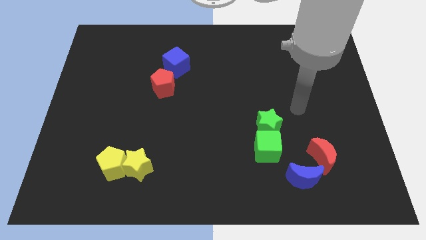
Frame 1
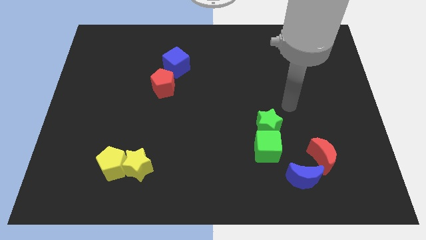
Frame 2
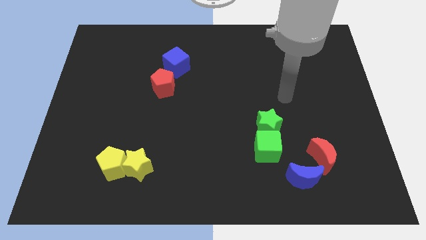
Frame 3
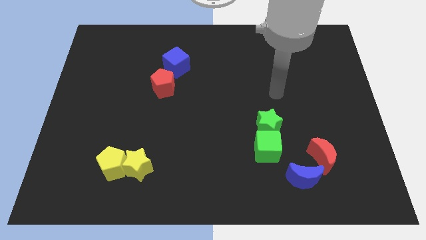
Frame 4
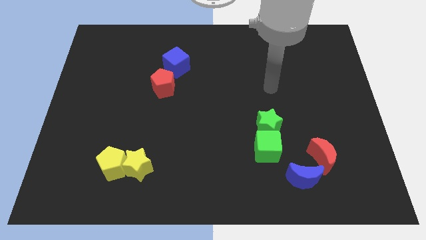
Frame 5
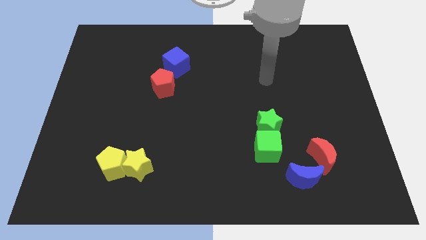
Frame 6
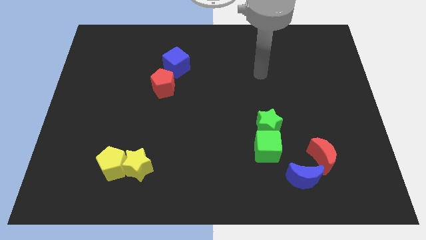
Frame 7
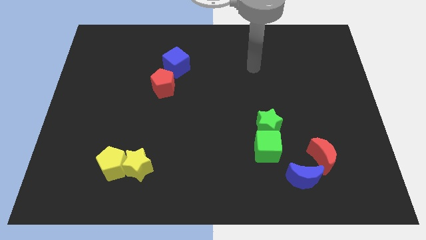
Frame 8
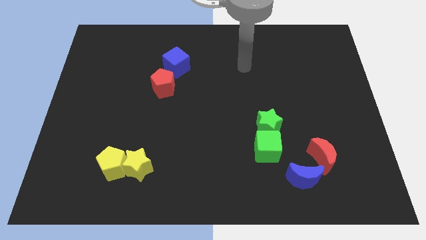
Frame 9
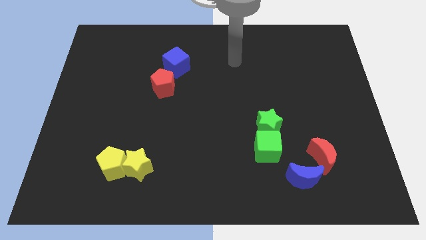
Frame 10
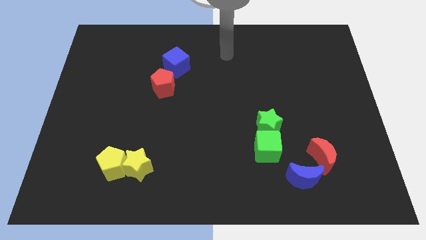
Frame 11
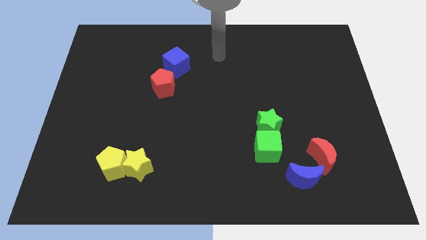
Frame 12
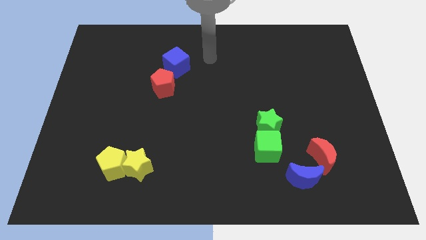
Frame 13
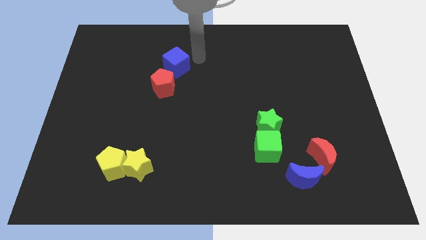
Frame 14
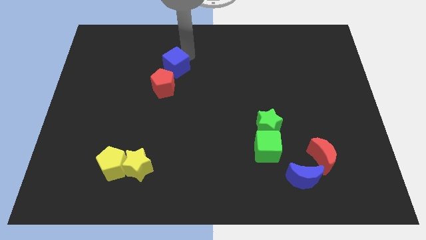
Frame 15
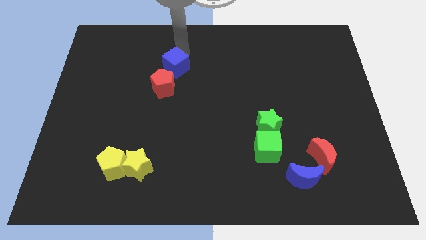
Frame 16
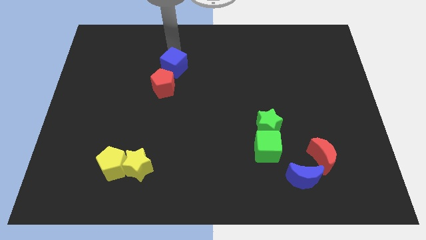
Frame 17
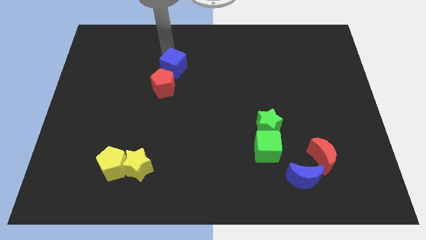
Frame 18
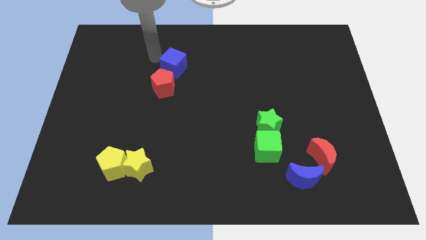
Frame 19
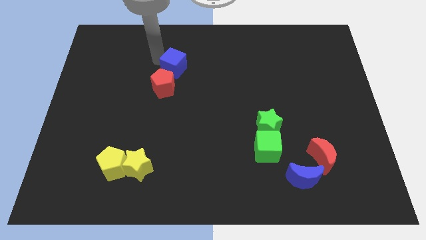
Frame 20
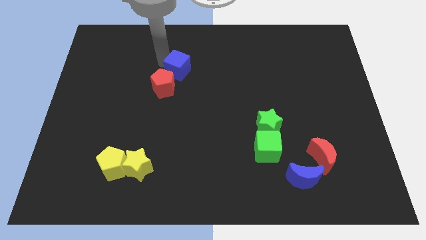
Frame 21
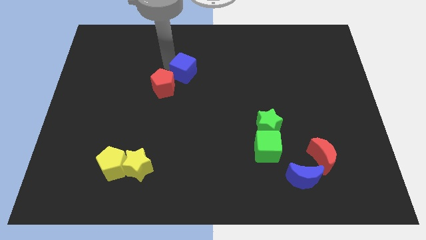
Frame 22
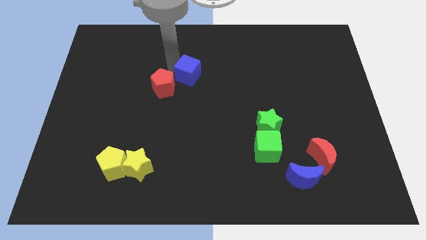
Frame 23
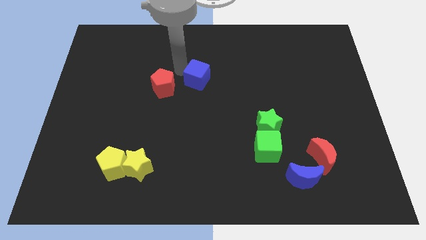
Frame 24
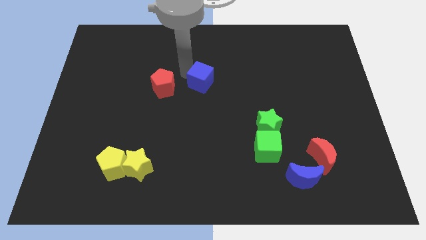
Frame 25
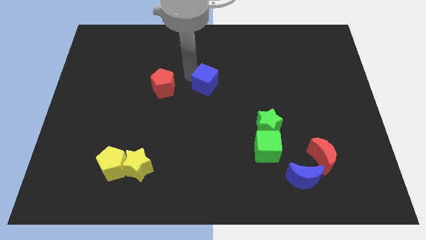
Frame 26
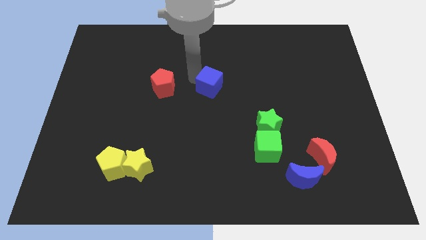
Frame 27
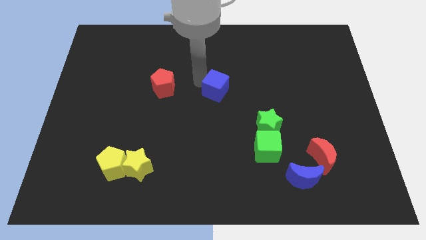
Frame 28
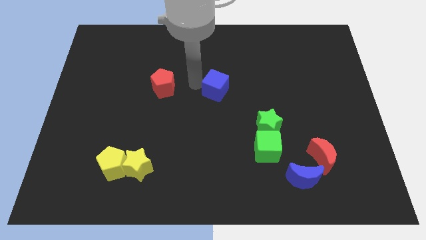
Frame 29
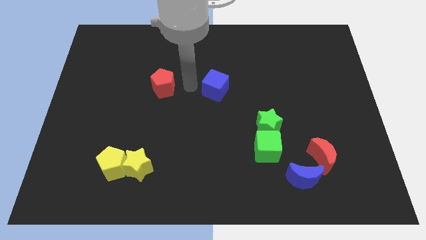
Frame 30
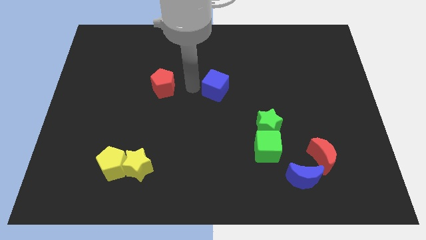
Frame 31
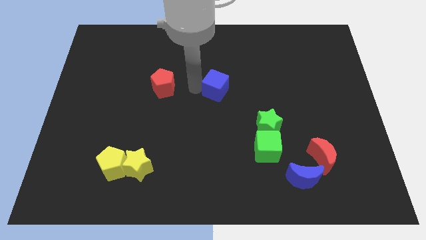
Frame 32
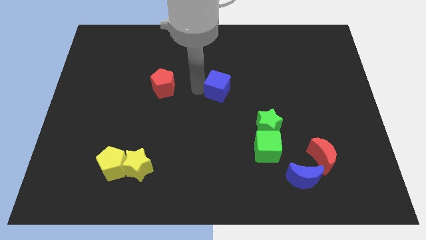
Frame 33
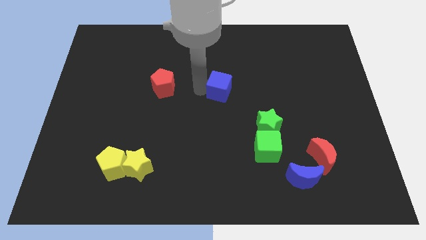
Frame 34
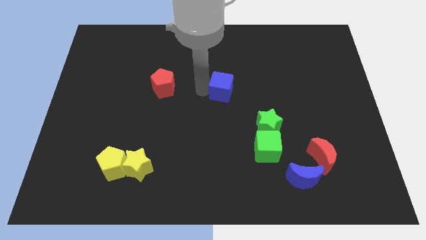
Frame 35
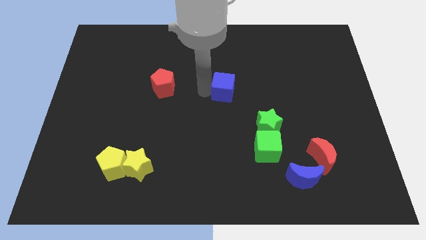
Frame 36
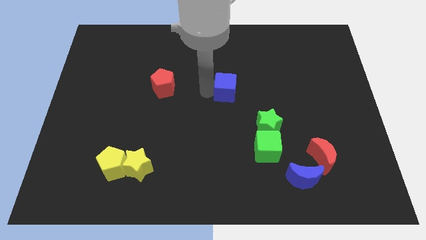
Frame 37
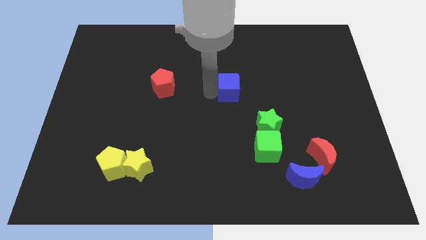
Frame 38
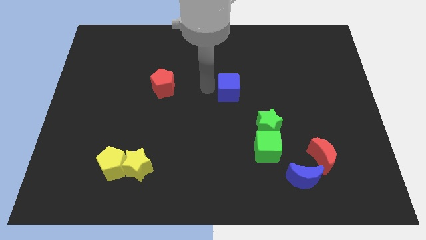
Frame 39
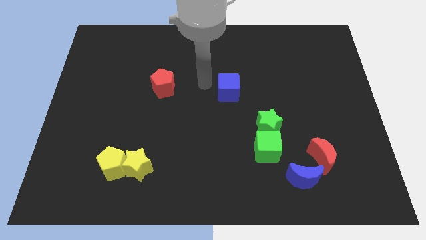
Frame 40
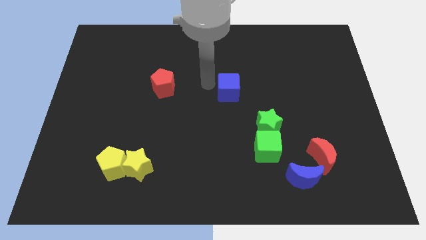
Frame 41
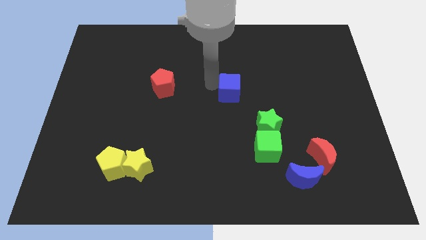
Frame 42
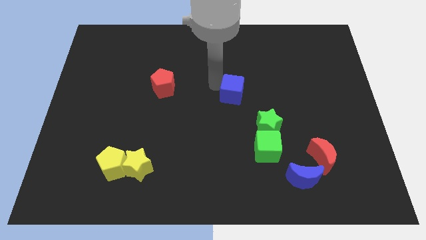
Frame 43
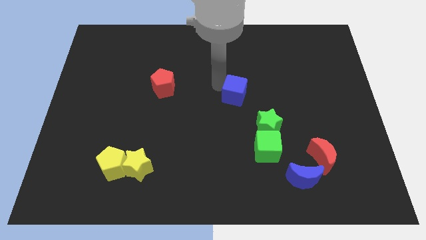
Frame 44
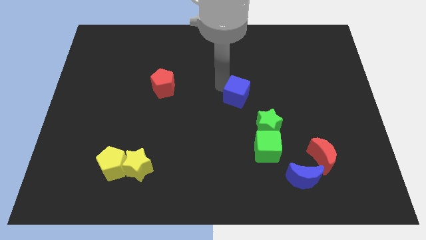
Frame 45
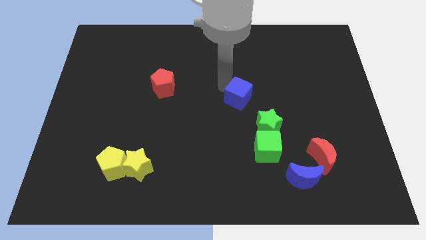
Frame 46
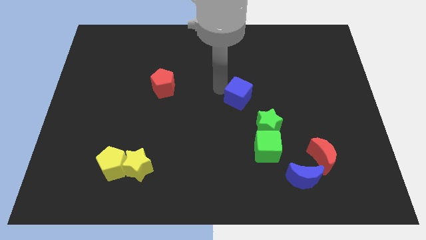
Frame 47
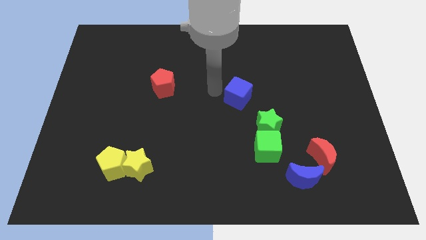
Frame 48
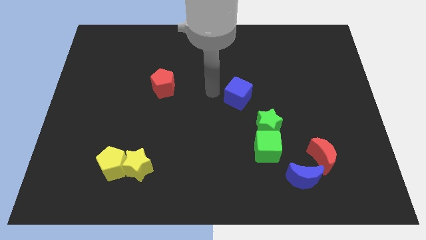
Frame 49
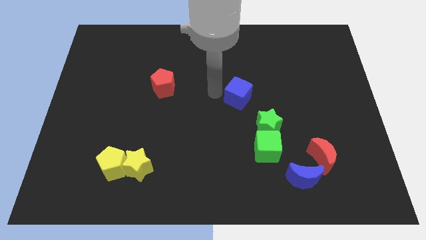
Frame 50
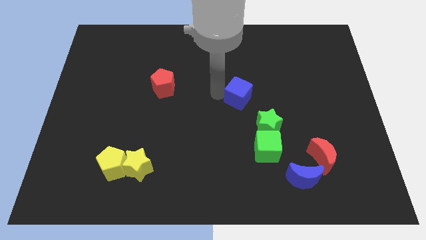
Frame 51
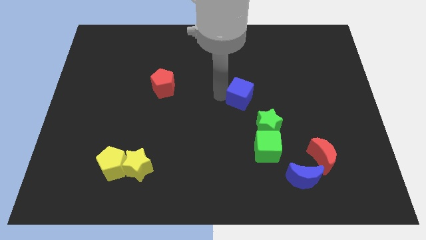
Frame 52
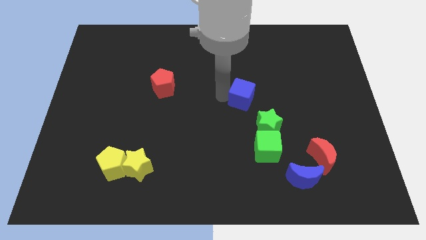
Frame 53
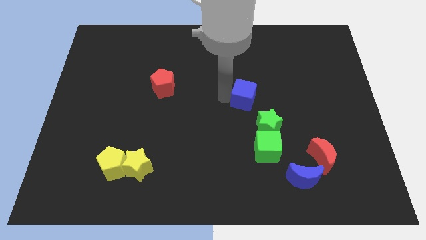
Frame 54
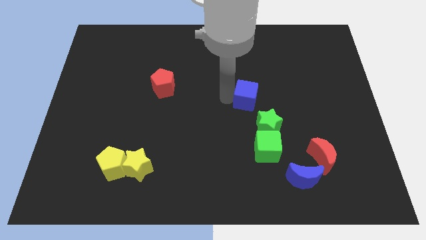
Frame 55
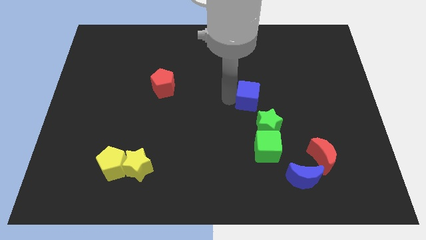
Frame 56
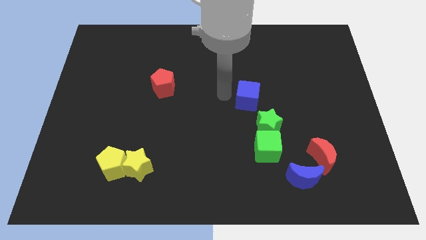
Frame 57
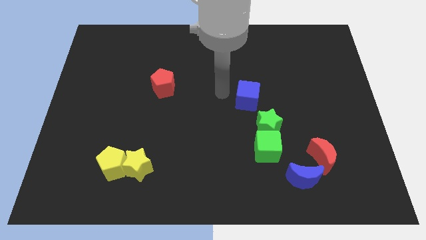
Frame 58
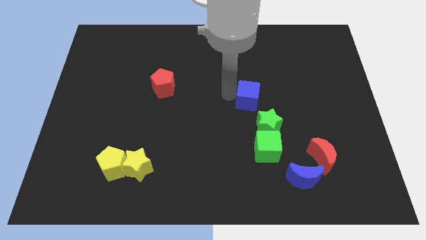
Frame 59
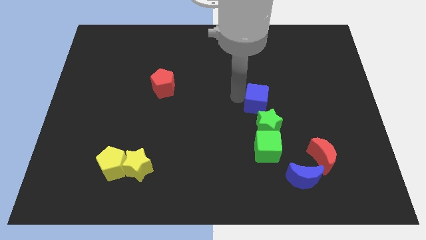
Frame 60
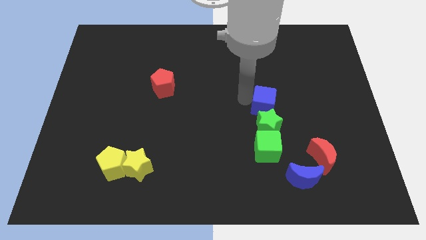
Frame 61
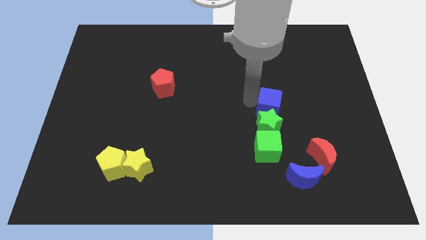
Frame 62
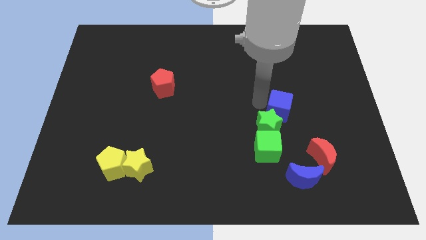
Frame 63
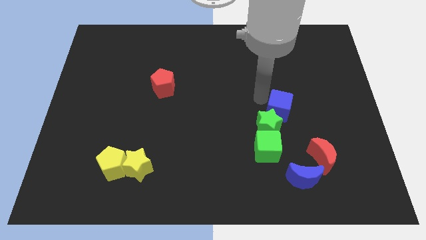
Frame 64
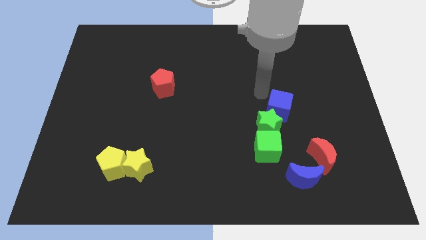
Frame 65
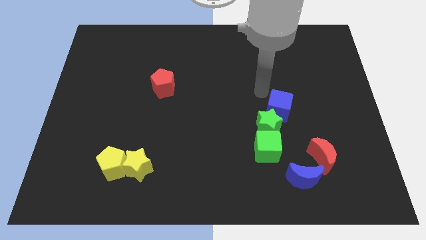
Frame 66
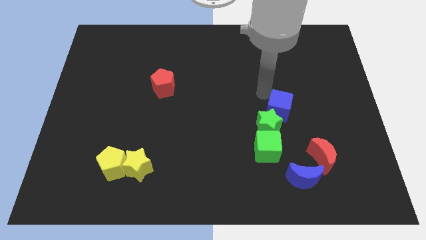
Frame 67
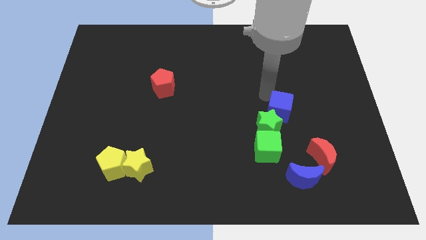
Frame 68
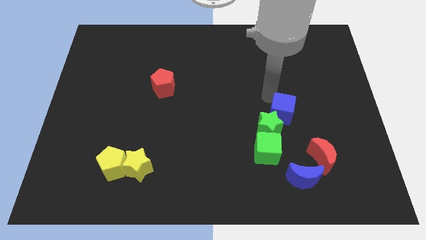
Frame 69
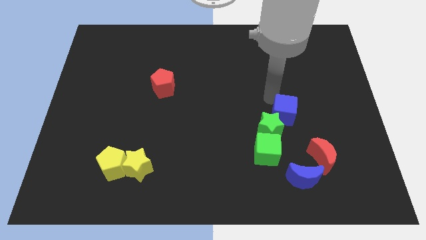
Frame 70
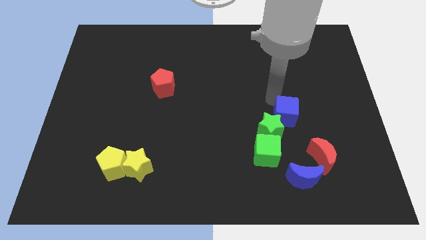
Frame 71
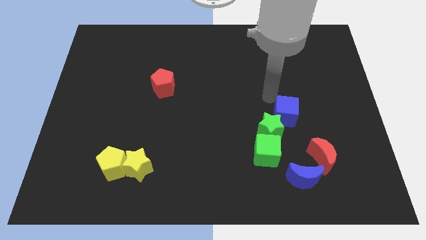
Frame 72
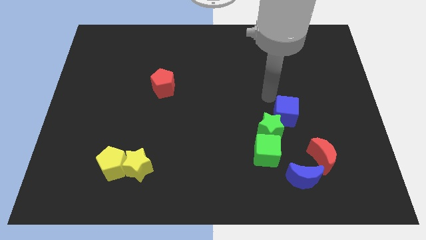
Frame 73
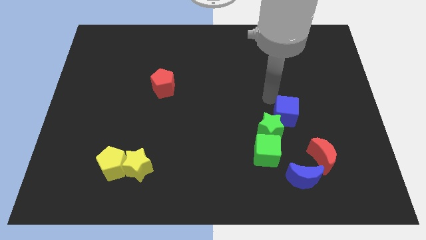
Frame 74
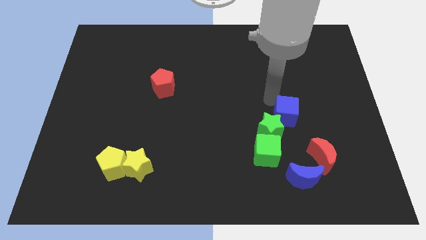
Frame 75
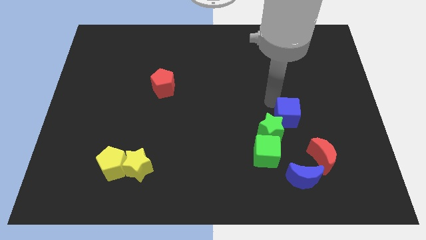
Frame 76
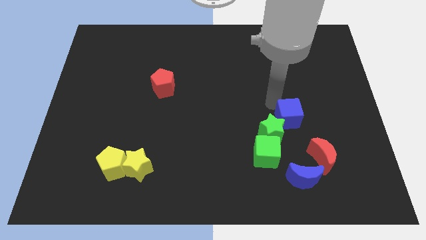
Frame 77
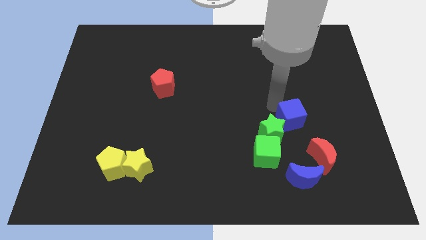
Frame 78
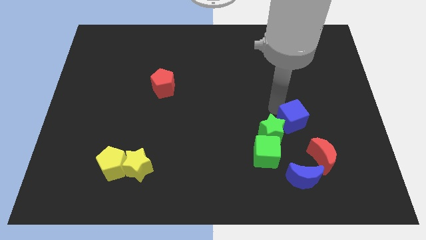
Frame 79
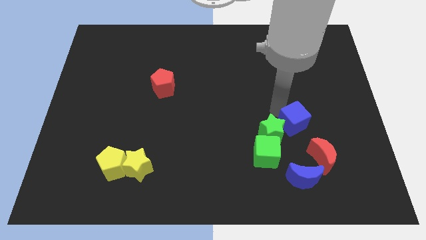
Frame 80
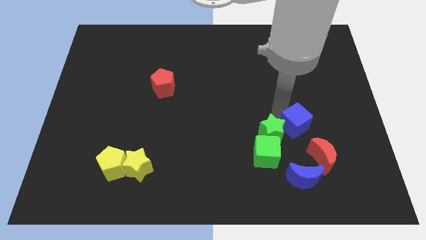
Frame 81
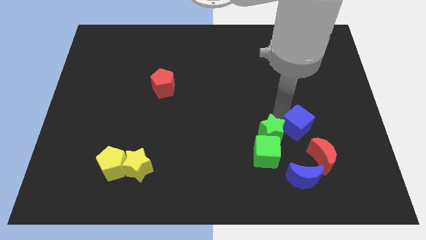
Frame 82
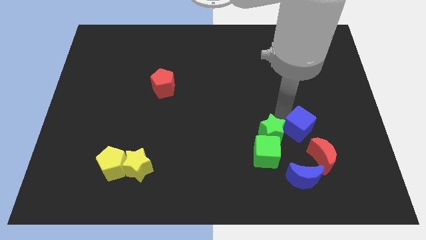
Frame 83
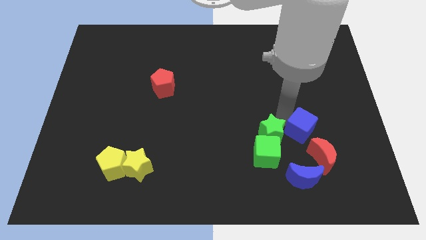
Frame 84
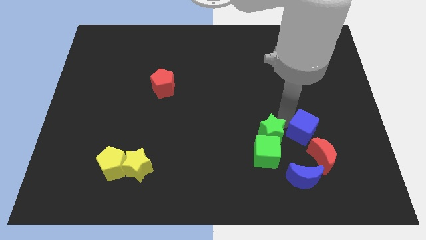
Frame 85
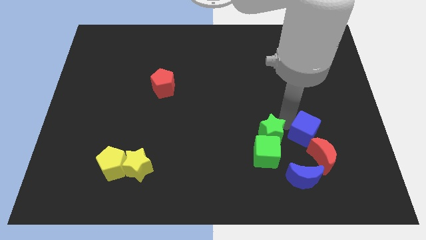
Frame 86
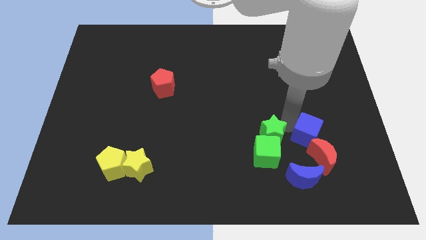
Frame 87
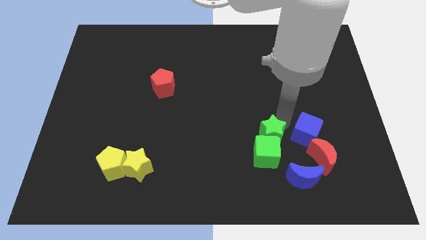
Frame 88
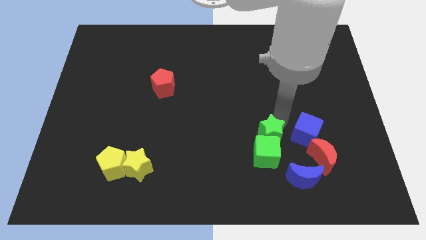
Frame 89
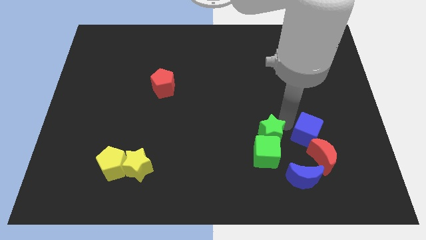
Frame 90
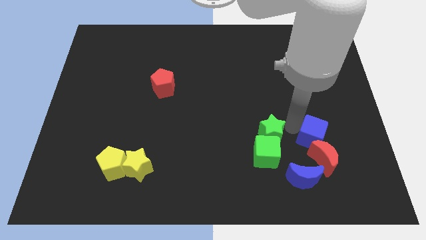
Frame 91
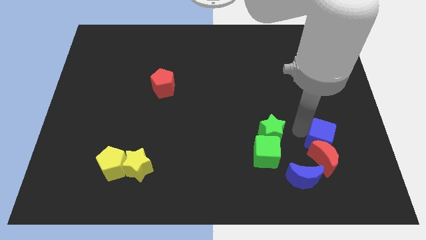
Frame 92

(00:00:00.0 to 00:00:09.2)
move the blue cube to the top right of the blue moon
